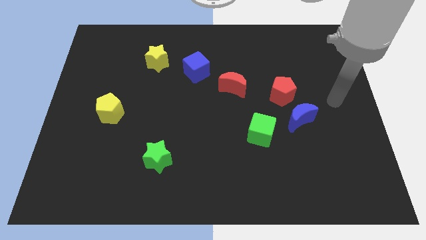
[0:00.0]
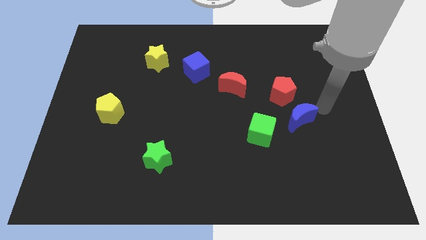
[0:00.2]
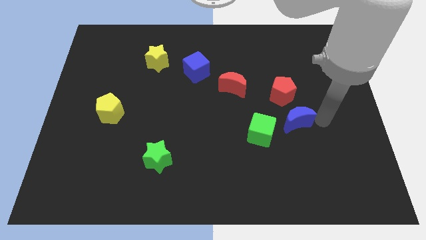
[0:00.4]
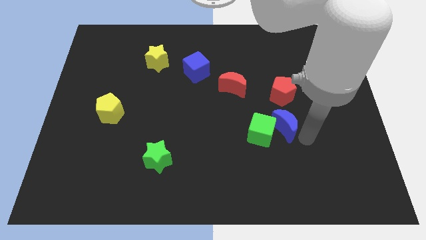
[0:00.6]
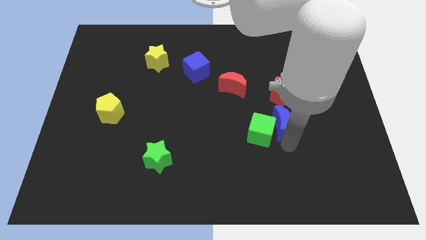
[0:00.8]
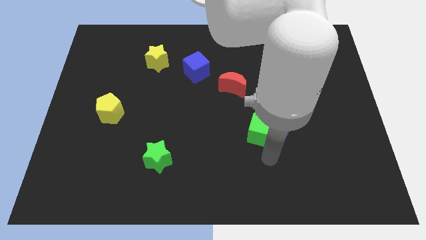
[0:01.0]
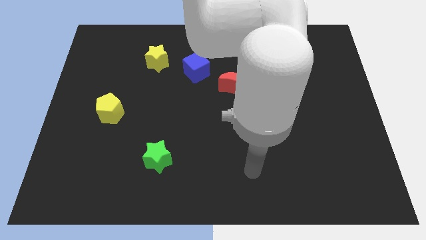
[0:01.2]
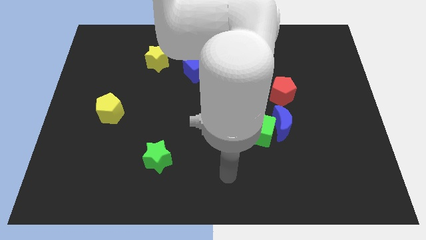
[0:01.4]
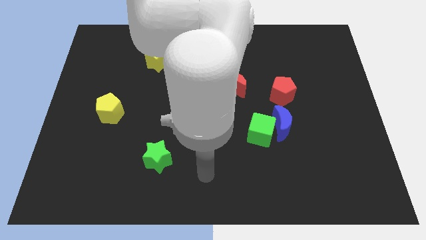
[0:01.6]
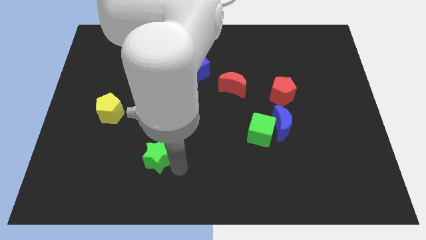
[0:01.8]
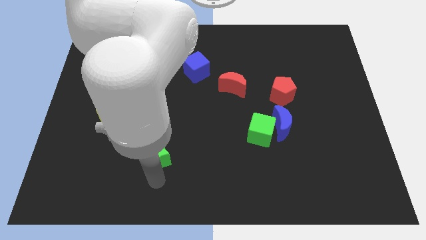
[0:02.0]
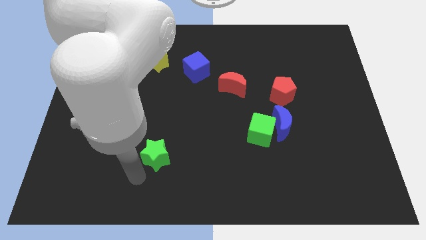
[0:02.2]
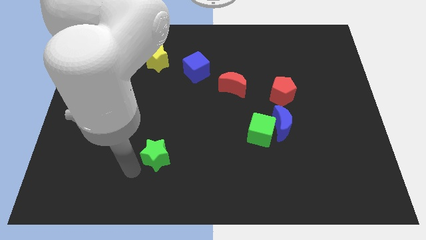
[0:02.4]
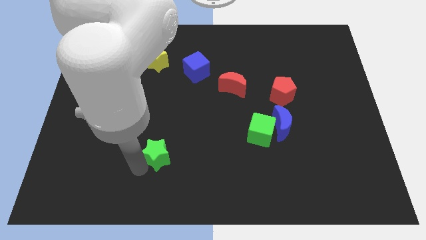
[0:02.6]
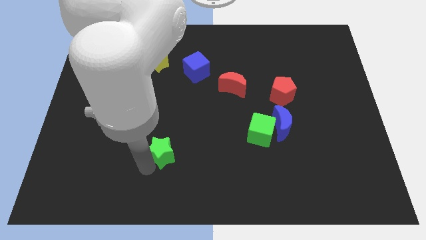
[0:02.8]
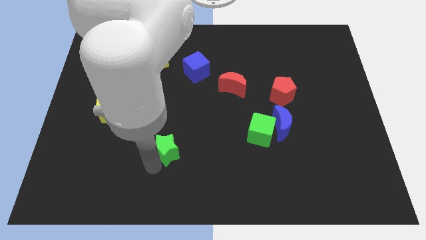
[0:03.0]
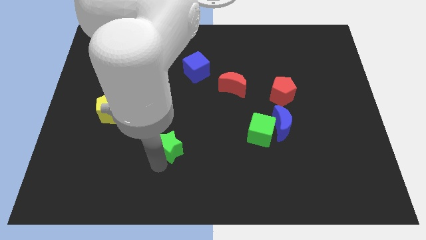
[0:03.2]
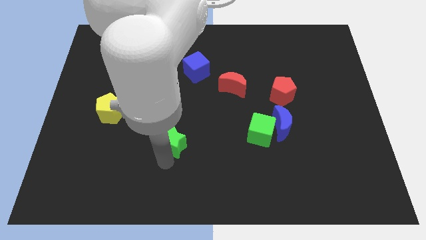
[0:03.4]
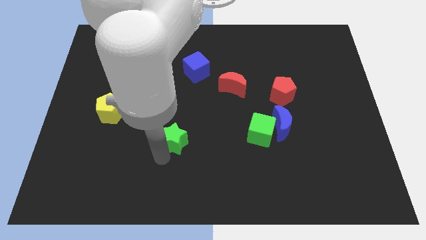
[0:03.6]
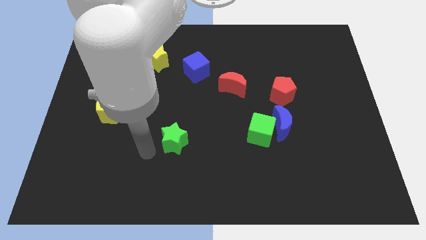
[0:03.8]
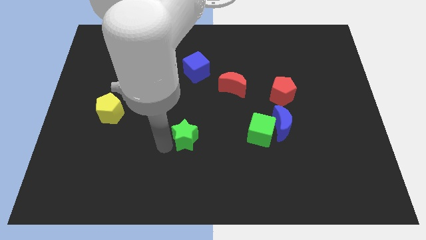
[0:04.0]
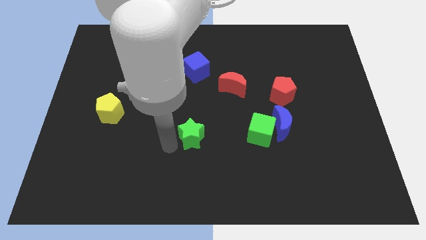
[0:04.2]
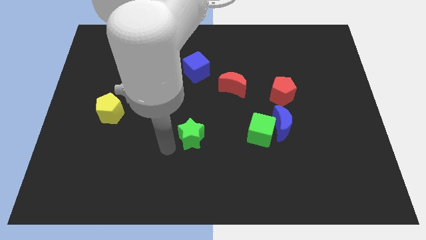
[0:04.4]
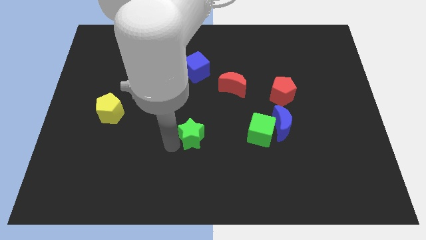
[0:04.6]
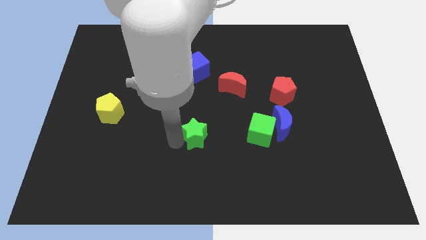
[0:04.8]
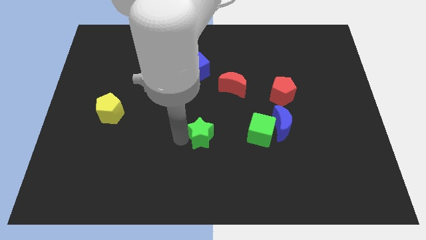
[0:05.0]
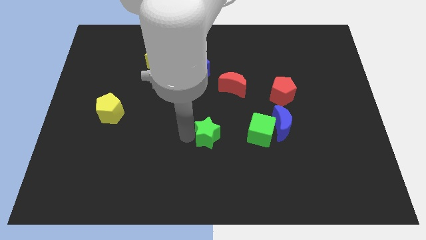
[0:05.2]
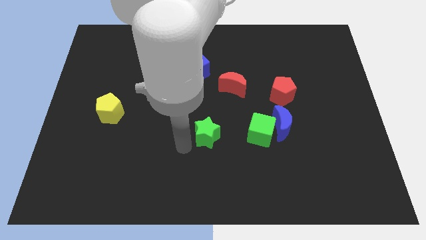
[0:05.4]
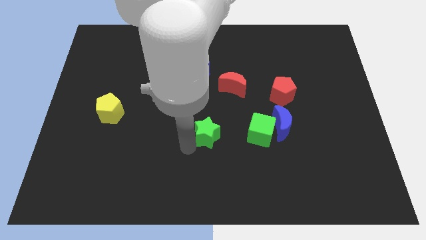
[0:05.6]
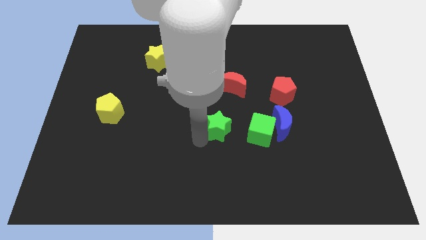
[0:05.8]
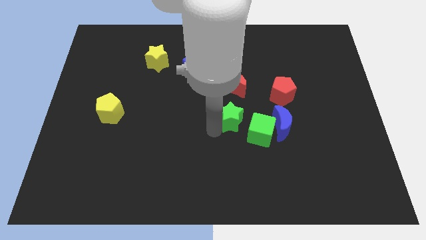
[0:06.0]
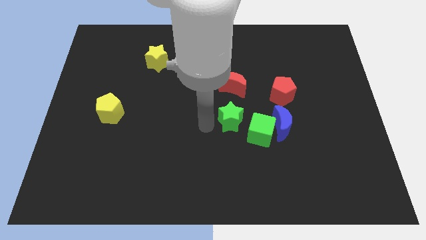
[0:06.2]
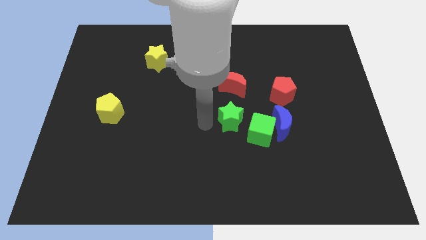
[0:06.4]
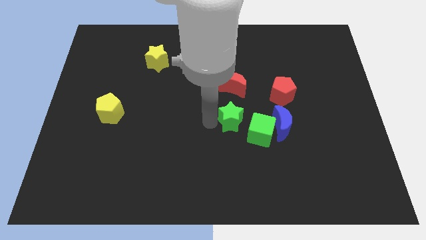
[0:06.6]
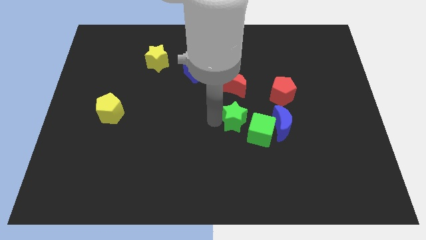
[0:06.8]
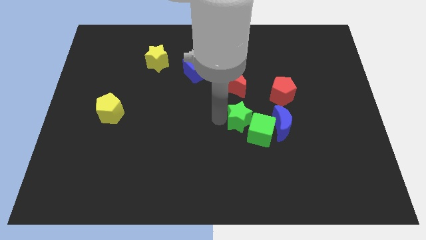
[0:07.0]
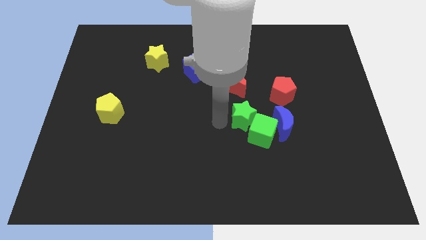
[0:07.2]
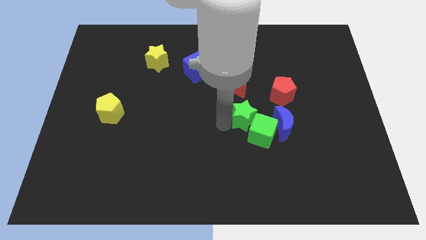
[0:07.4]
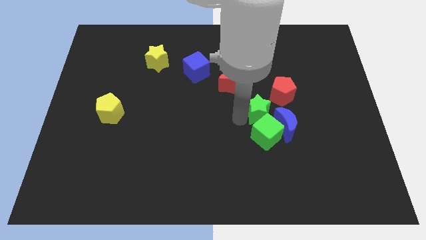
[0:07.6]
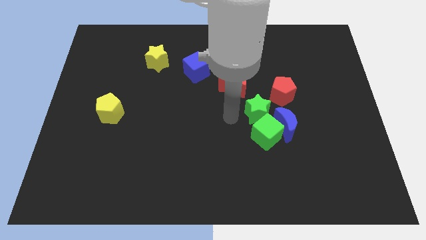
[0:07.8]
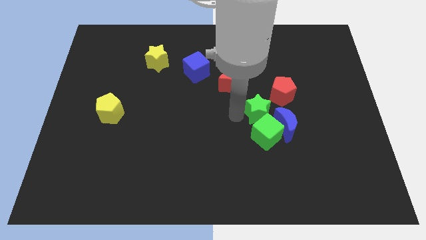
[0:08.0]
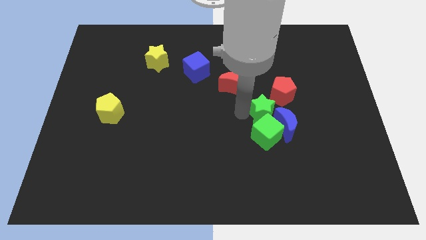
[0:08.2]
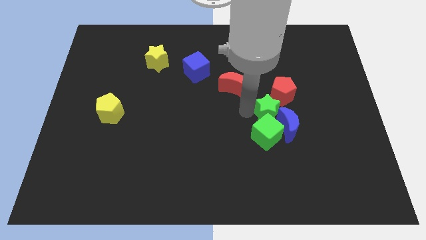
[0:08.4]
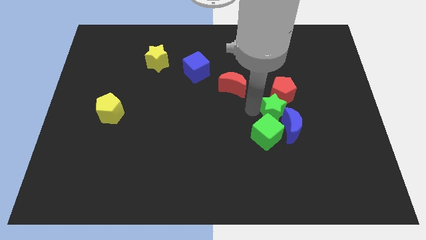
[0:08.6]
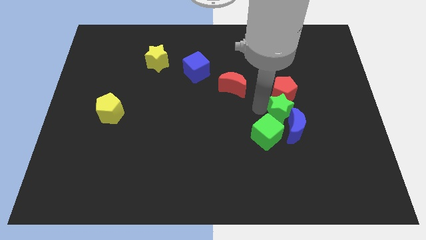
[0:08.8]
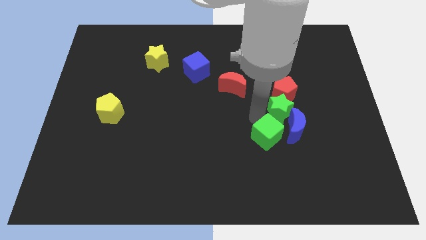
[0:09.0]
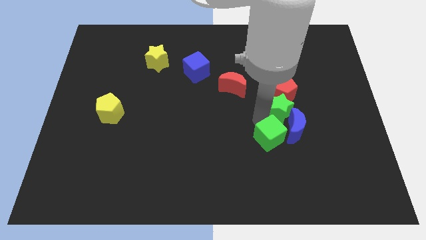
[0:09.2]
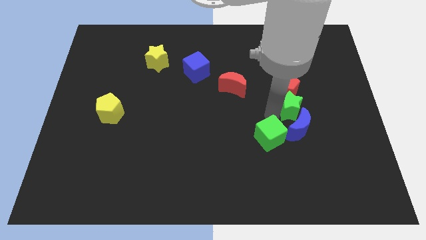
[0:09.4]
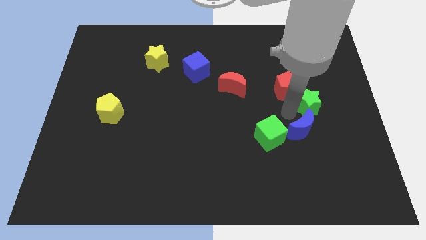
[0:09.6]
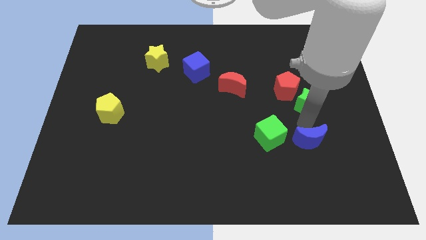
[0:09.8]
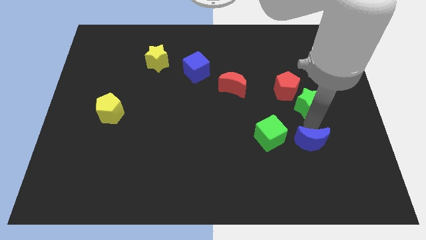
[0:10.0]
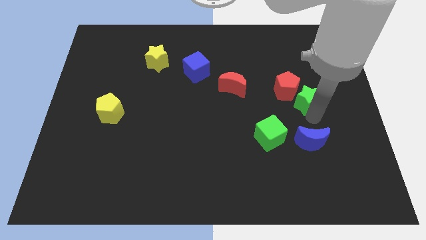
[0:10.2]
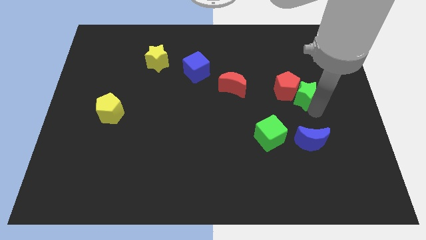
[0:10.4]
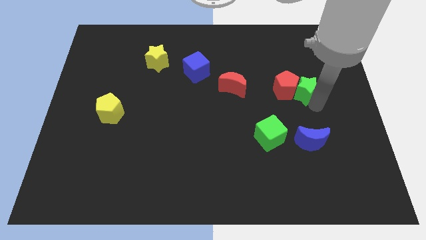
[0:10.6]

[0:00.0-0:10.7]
move the green star diagonally up and to the right of the red pentagon

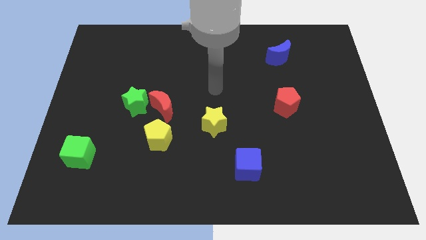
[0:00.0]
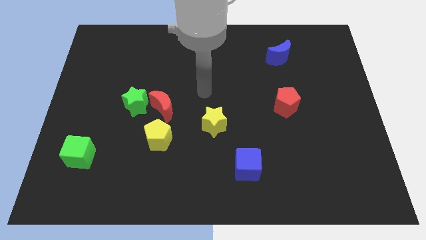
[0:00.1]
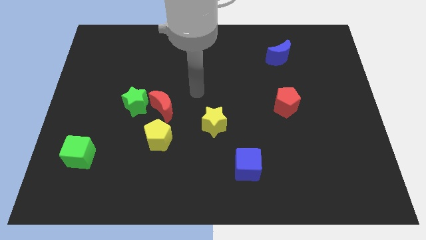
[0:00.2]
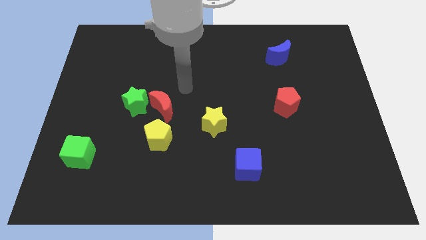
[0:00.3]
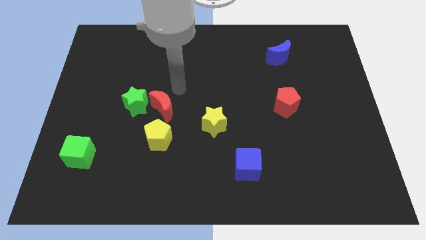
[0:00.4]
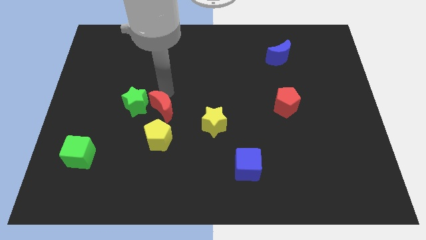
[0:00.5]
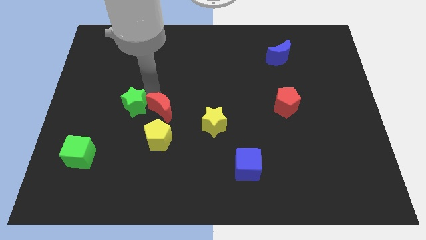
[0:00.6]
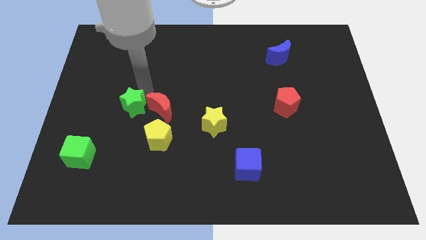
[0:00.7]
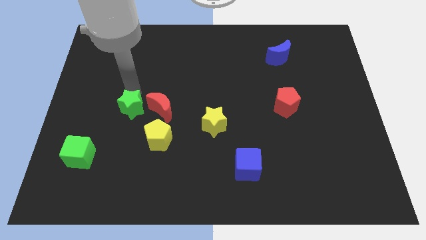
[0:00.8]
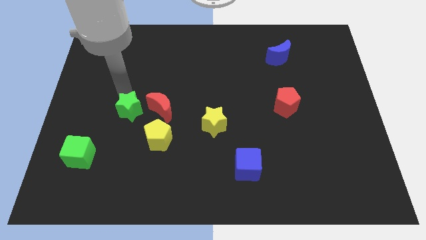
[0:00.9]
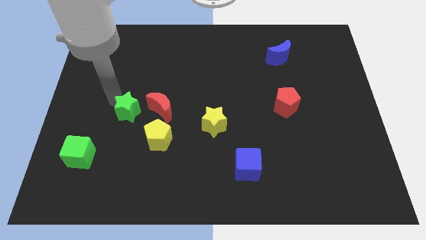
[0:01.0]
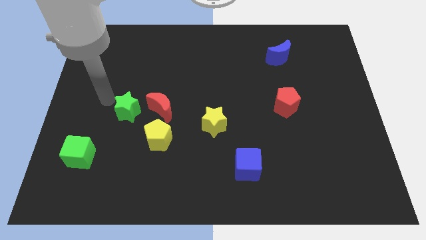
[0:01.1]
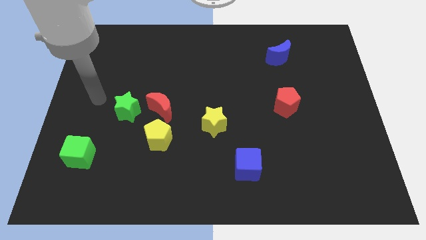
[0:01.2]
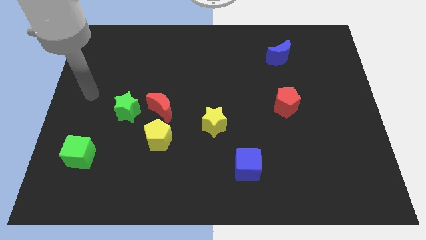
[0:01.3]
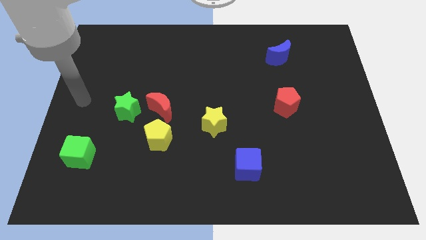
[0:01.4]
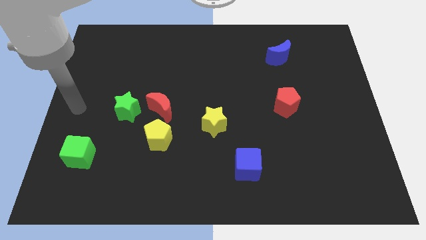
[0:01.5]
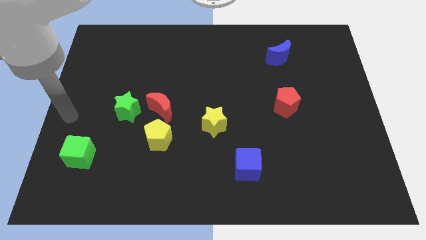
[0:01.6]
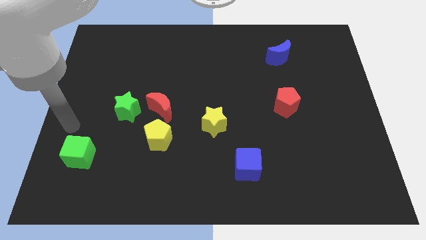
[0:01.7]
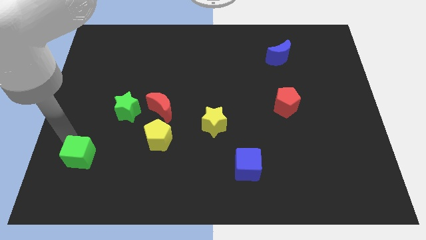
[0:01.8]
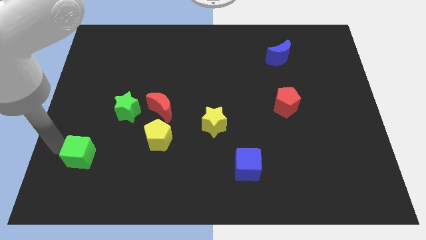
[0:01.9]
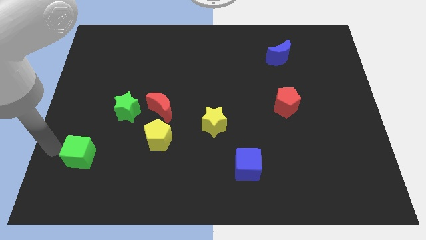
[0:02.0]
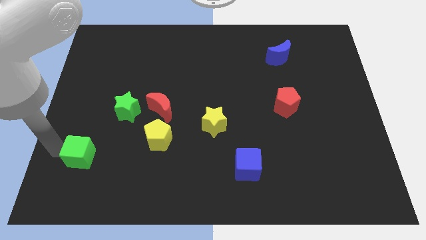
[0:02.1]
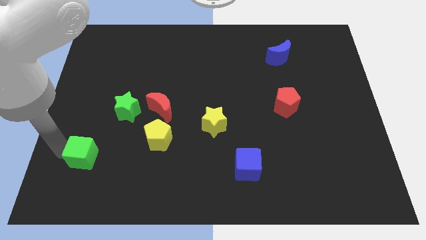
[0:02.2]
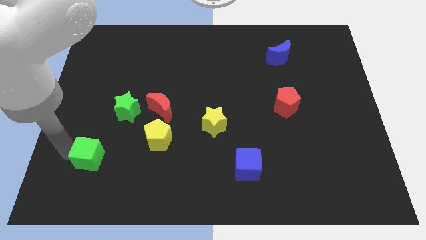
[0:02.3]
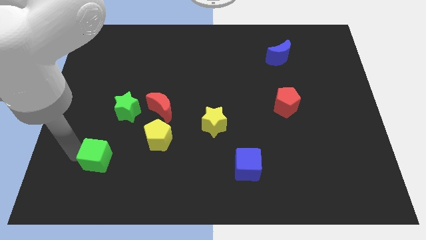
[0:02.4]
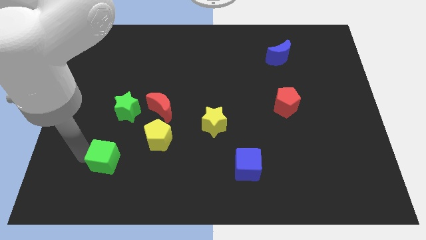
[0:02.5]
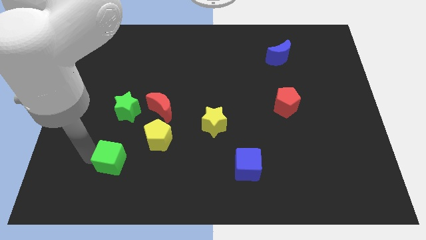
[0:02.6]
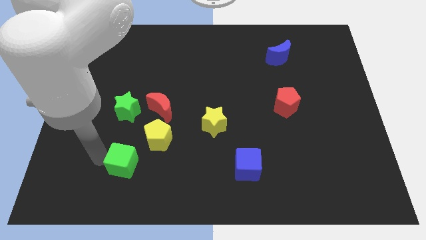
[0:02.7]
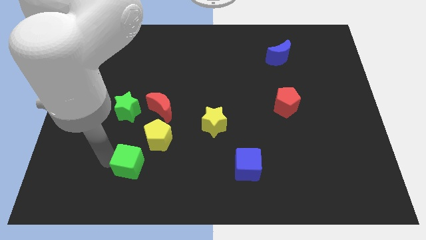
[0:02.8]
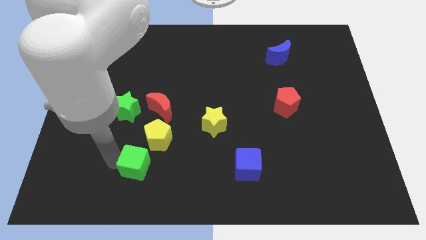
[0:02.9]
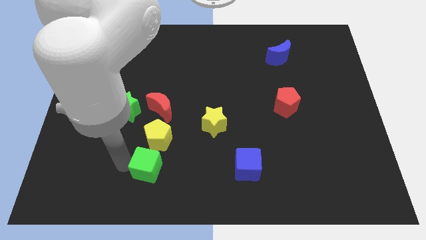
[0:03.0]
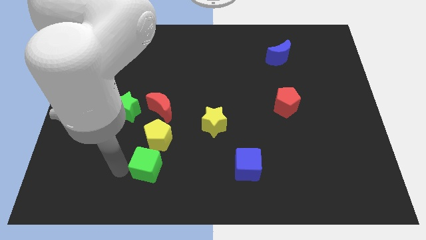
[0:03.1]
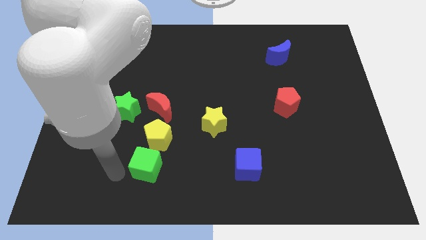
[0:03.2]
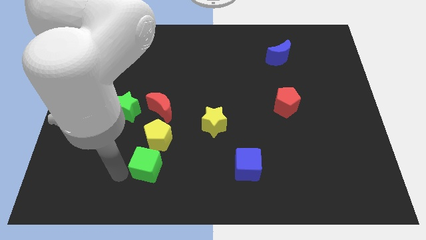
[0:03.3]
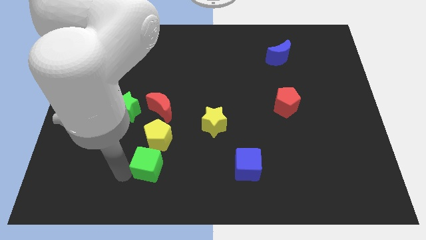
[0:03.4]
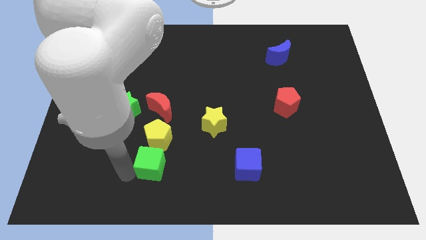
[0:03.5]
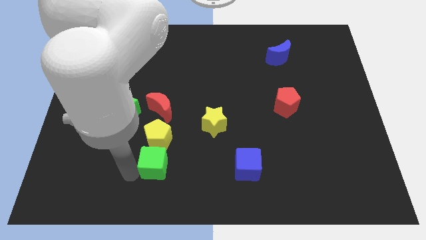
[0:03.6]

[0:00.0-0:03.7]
put the green cube to the bottom right of the yellow pentagon
